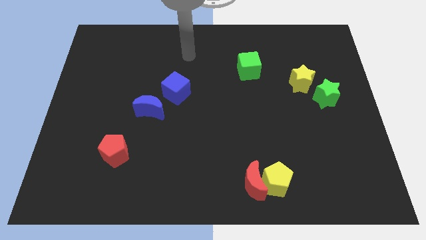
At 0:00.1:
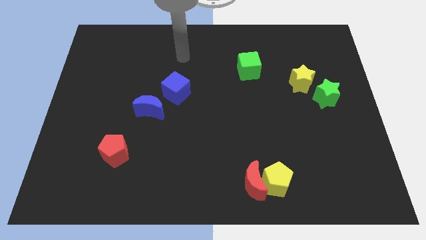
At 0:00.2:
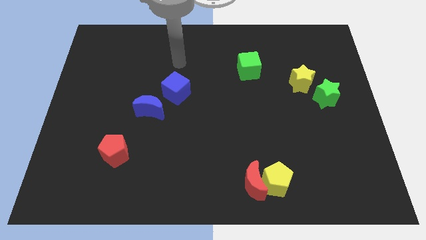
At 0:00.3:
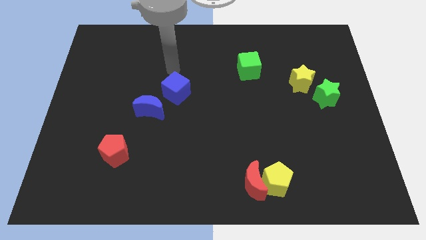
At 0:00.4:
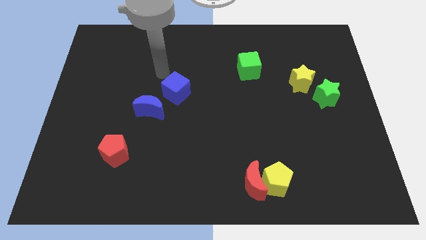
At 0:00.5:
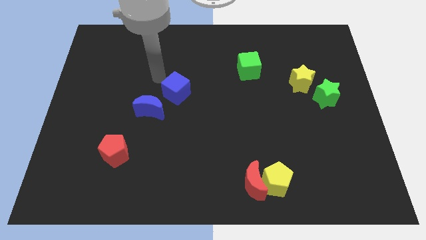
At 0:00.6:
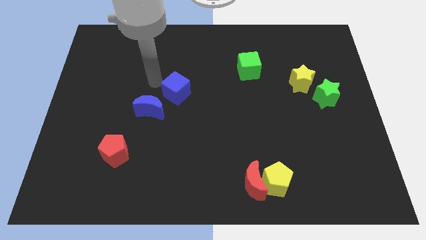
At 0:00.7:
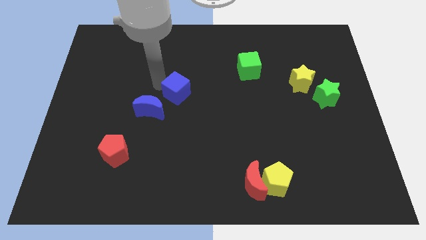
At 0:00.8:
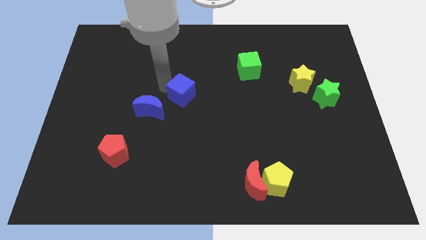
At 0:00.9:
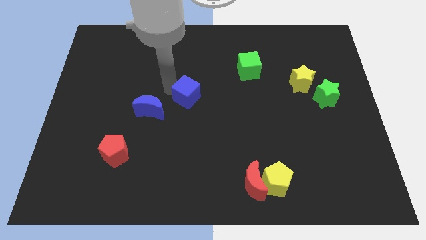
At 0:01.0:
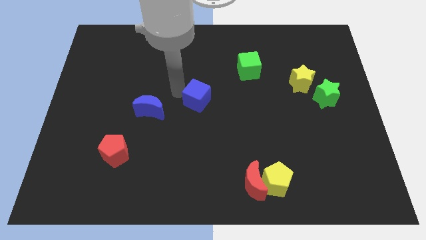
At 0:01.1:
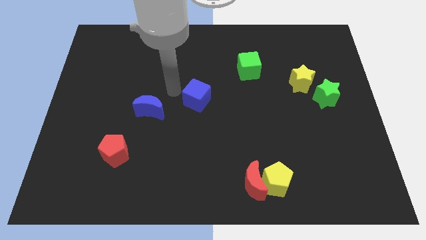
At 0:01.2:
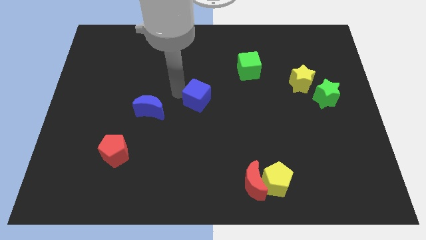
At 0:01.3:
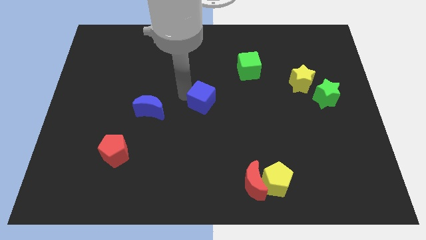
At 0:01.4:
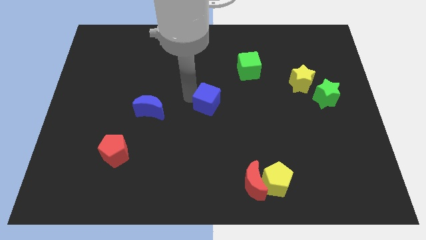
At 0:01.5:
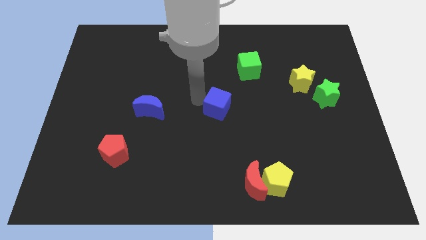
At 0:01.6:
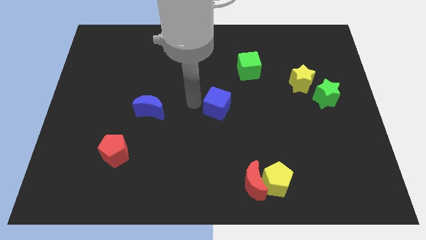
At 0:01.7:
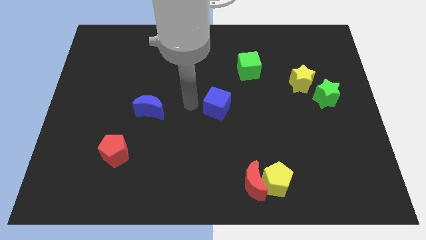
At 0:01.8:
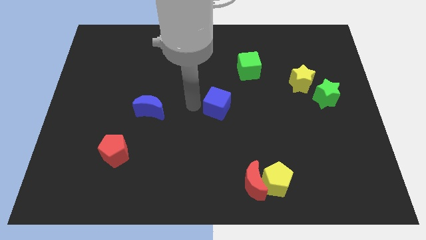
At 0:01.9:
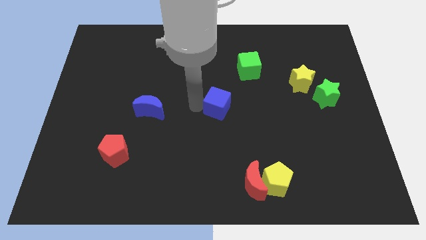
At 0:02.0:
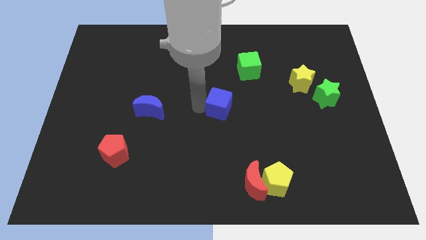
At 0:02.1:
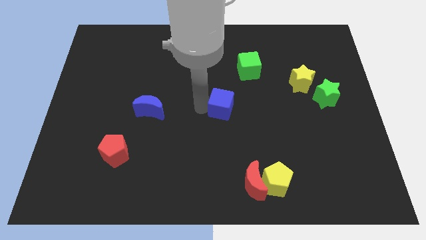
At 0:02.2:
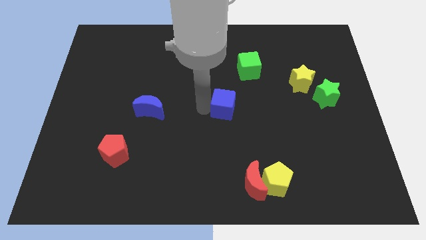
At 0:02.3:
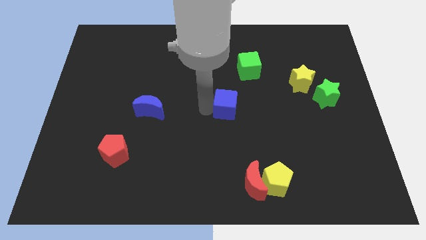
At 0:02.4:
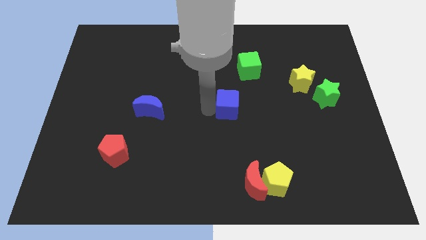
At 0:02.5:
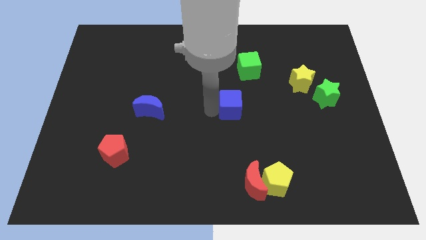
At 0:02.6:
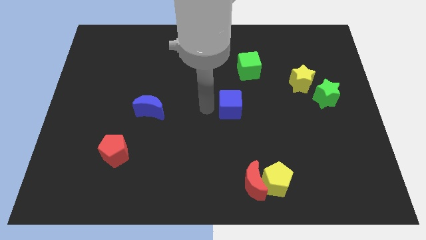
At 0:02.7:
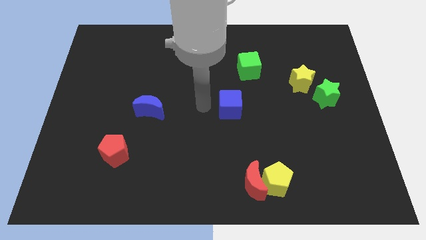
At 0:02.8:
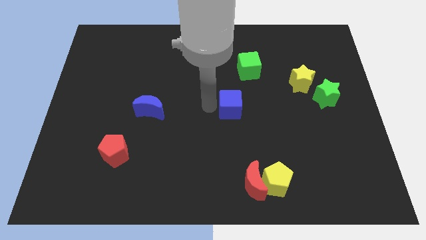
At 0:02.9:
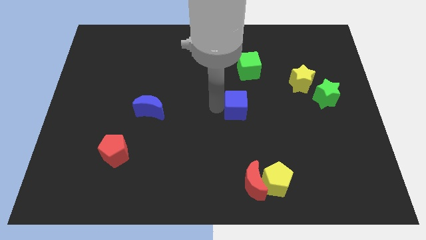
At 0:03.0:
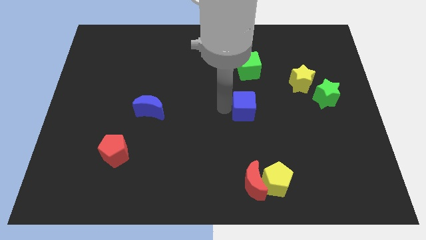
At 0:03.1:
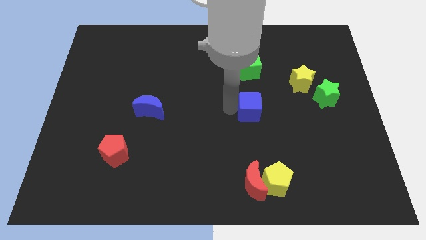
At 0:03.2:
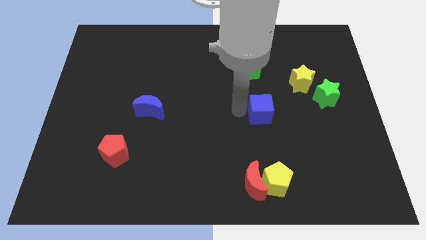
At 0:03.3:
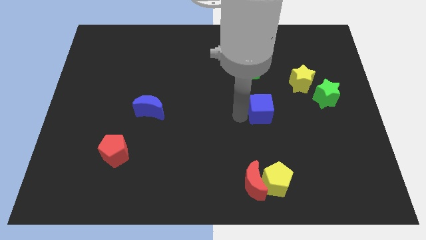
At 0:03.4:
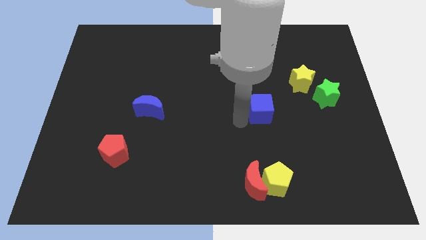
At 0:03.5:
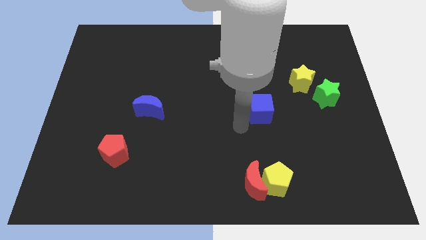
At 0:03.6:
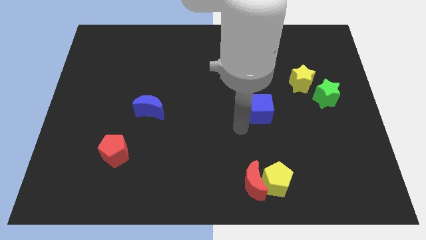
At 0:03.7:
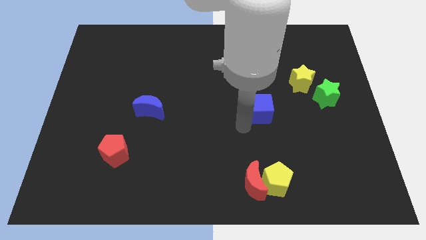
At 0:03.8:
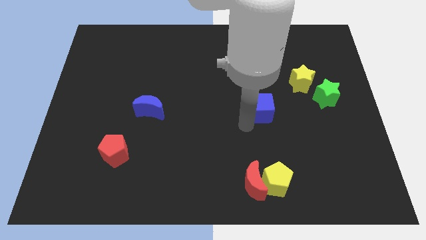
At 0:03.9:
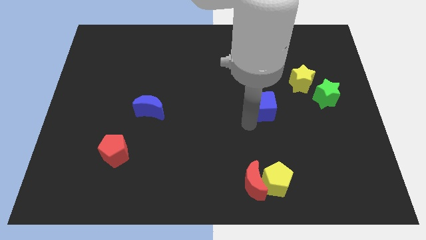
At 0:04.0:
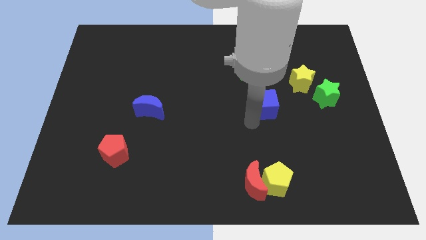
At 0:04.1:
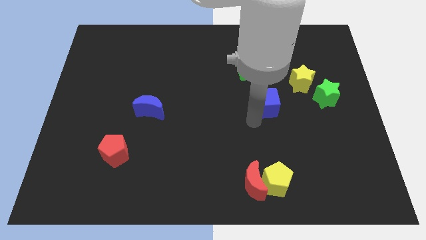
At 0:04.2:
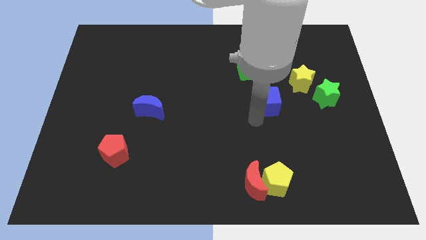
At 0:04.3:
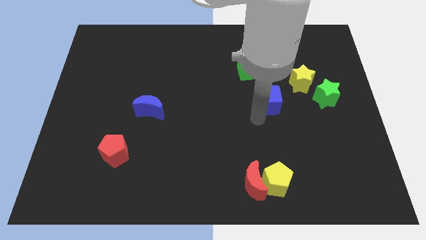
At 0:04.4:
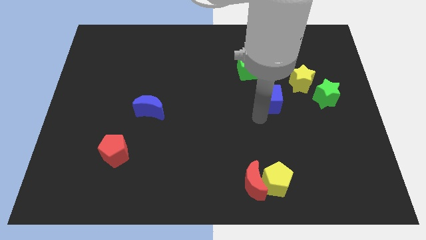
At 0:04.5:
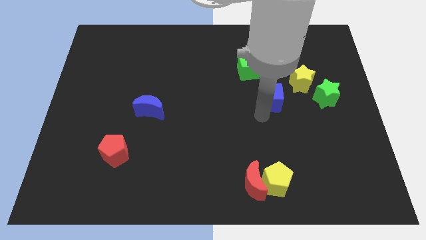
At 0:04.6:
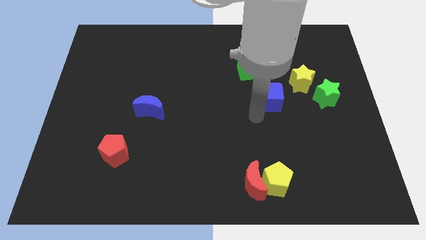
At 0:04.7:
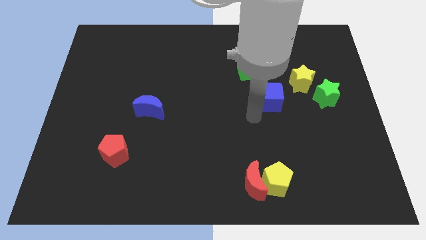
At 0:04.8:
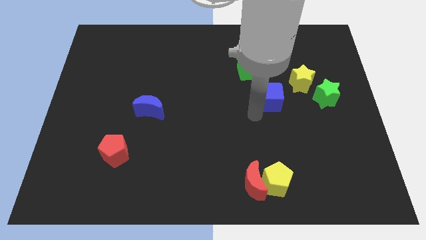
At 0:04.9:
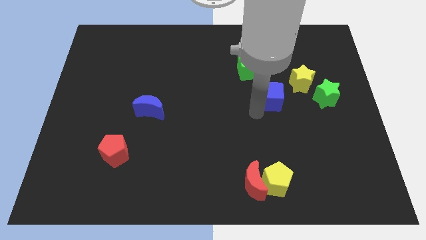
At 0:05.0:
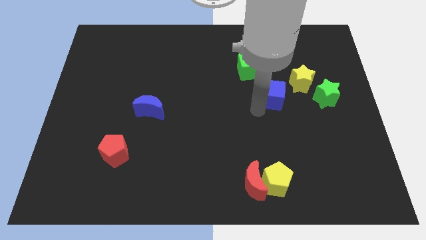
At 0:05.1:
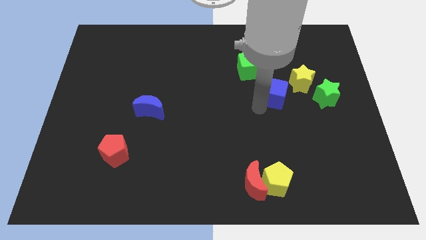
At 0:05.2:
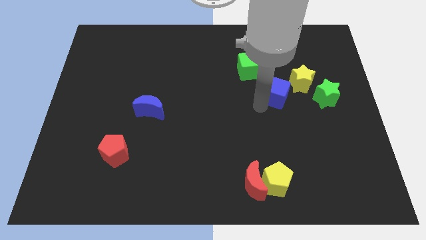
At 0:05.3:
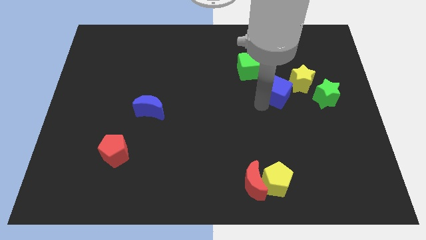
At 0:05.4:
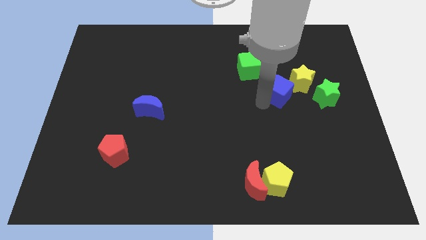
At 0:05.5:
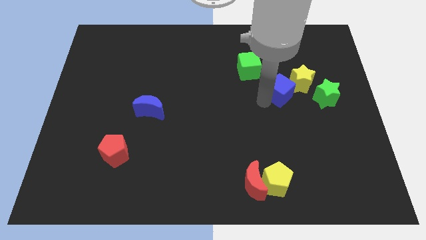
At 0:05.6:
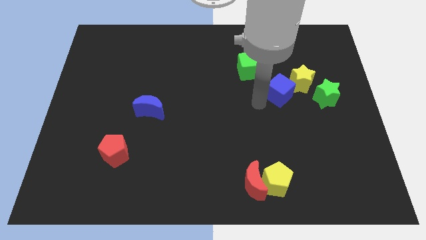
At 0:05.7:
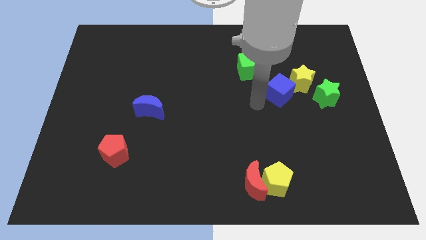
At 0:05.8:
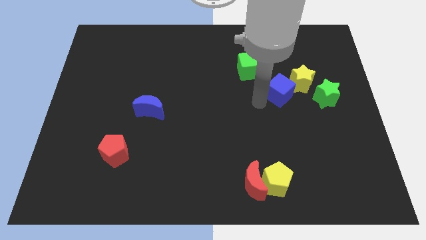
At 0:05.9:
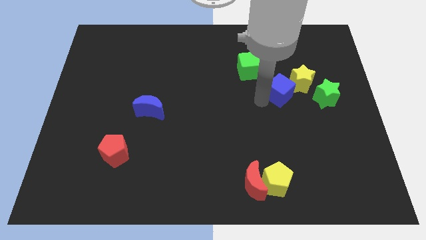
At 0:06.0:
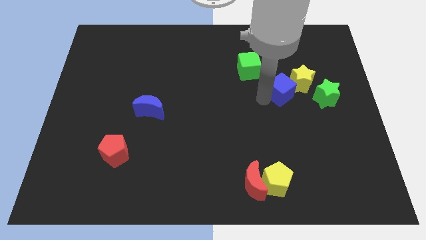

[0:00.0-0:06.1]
slide the blue cube towards the yellow star

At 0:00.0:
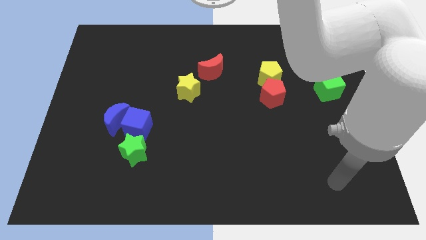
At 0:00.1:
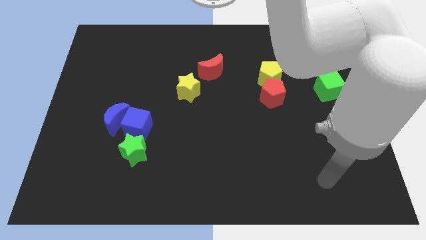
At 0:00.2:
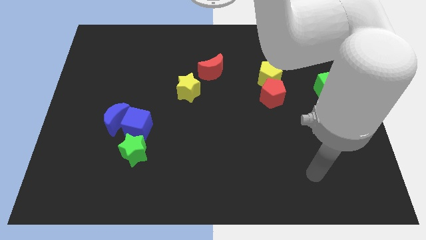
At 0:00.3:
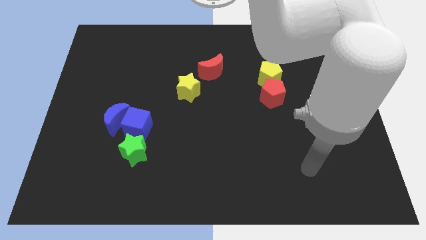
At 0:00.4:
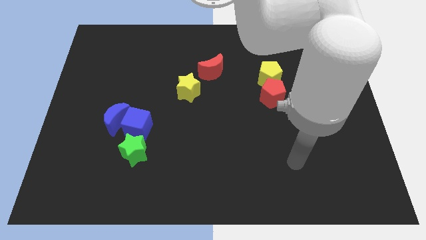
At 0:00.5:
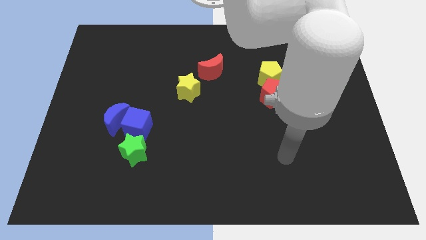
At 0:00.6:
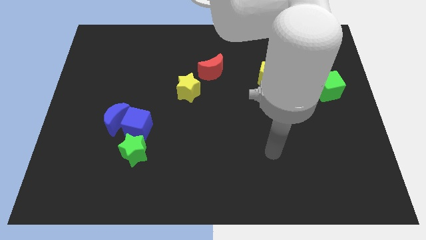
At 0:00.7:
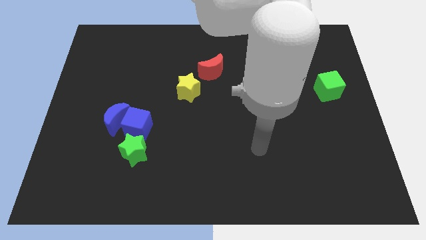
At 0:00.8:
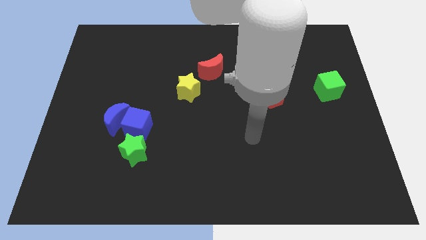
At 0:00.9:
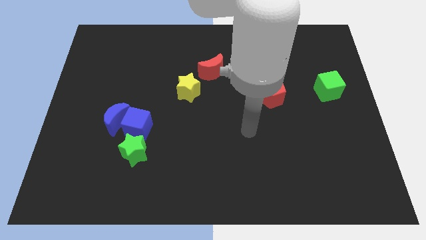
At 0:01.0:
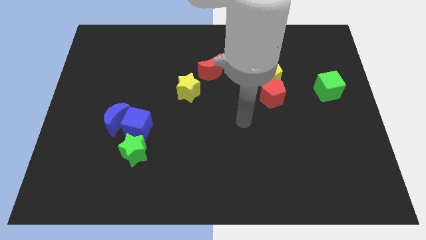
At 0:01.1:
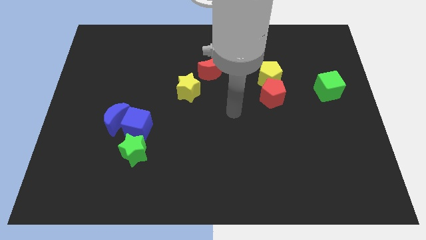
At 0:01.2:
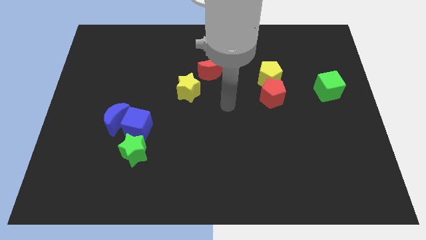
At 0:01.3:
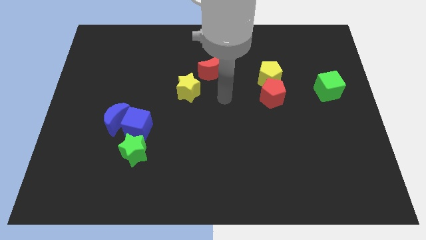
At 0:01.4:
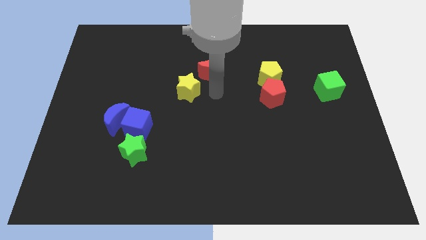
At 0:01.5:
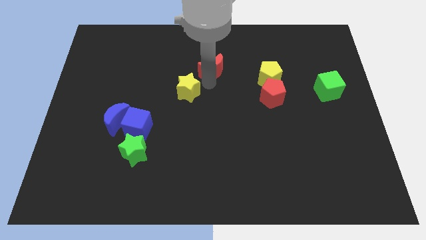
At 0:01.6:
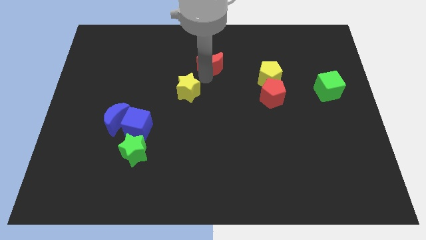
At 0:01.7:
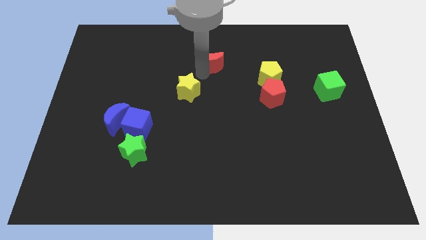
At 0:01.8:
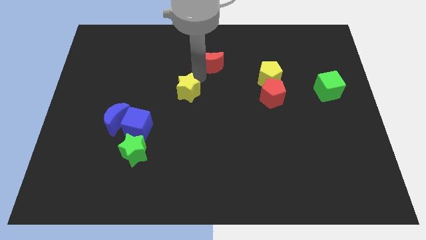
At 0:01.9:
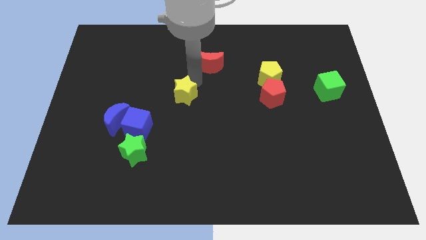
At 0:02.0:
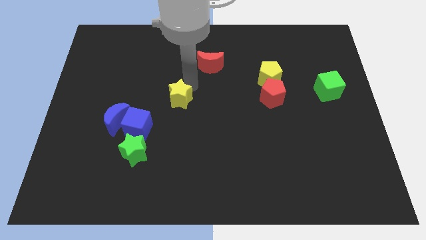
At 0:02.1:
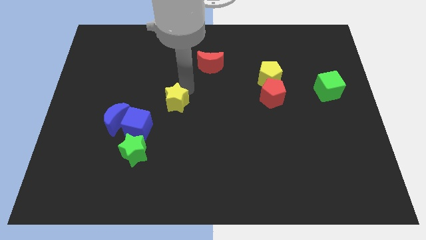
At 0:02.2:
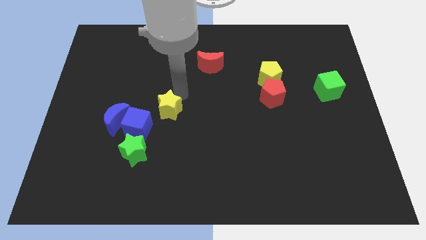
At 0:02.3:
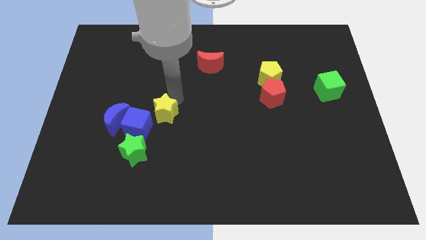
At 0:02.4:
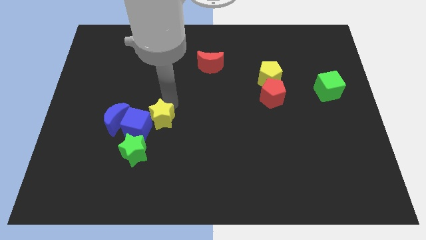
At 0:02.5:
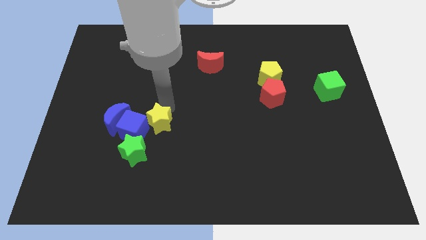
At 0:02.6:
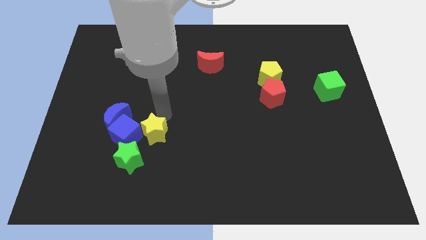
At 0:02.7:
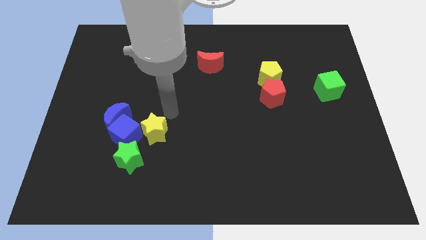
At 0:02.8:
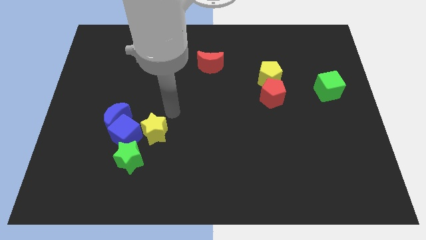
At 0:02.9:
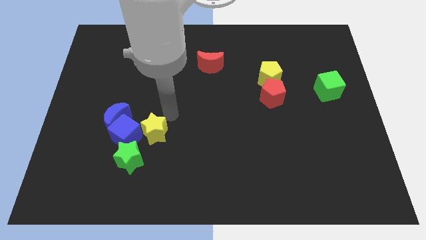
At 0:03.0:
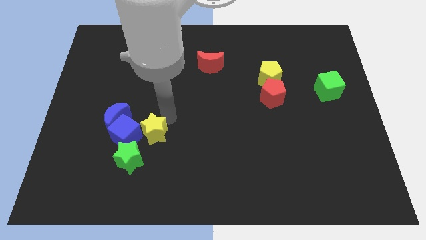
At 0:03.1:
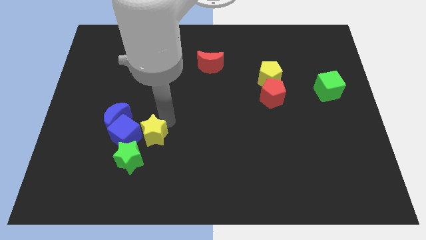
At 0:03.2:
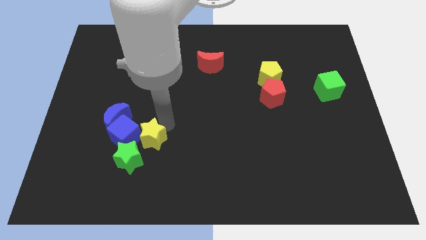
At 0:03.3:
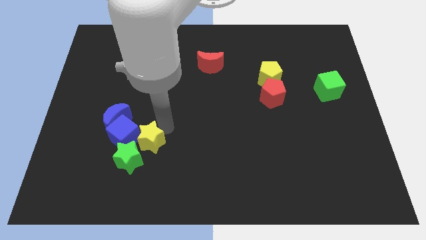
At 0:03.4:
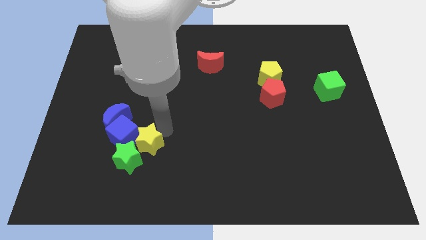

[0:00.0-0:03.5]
push the yellow star close to the green star
